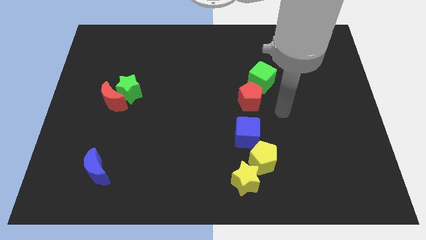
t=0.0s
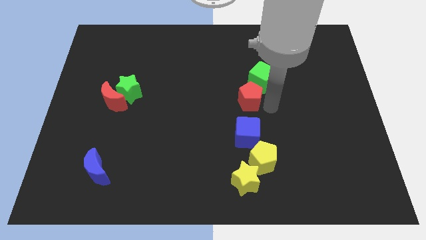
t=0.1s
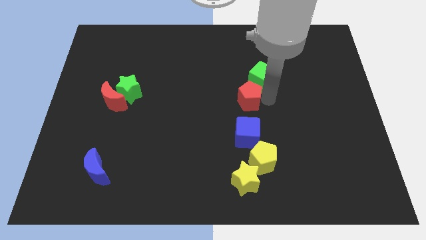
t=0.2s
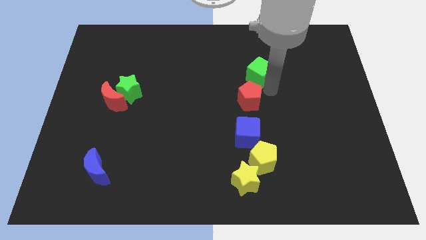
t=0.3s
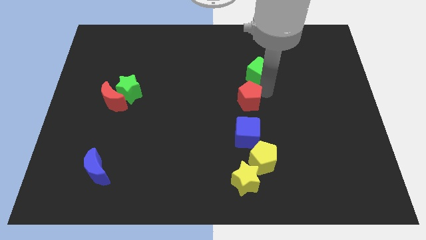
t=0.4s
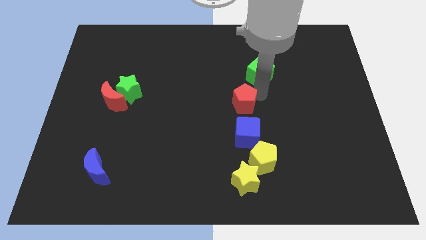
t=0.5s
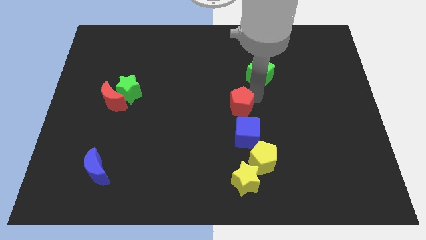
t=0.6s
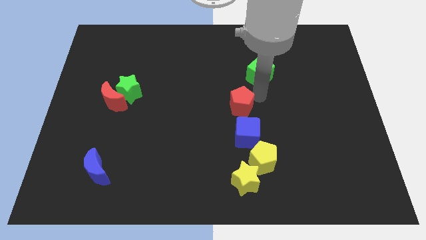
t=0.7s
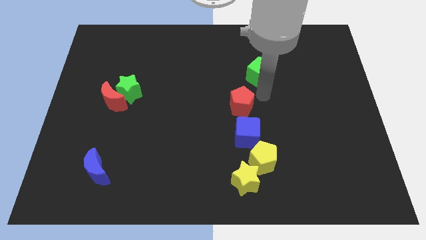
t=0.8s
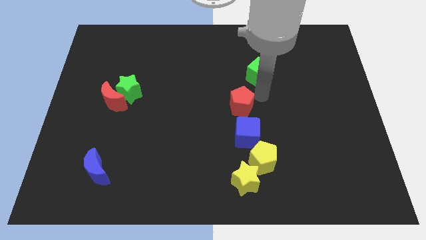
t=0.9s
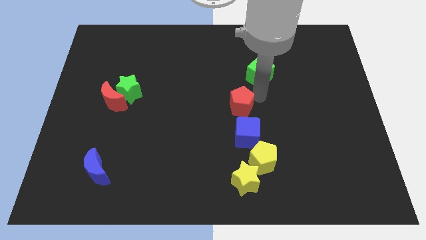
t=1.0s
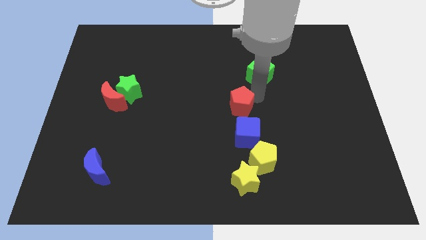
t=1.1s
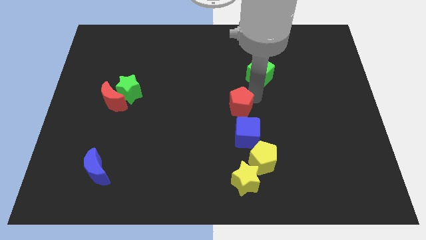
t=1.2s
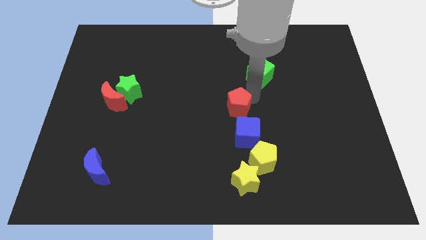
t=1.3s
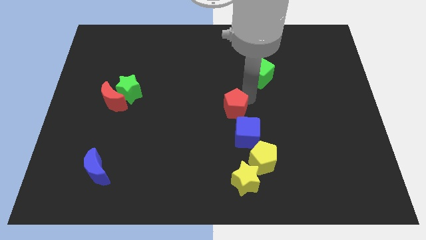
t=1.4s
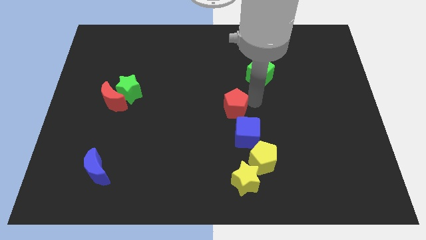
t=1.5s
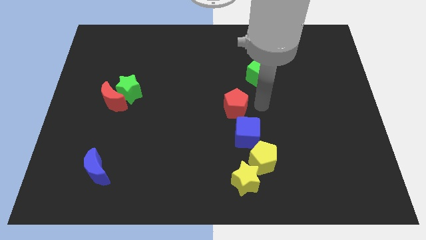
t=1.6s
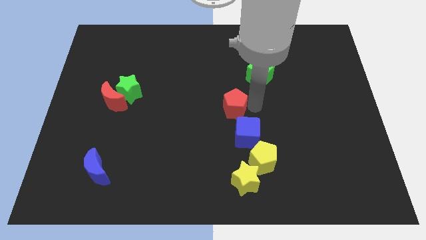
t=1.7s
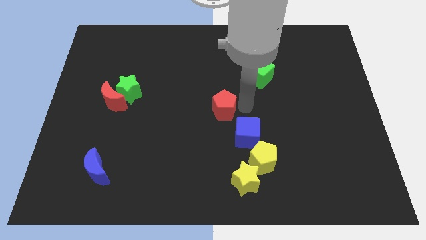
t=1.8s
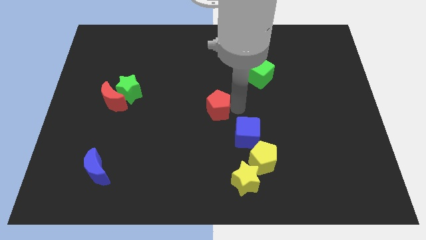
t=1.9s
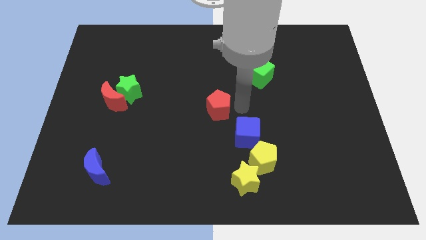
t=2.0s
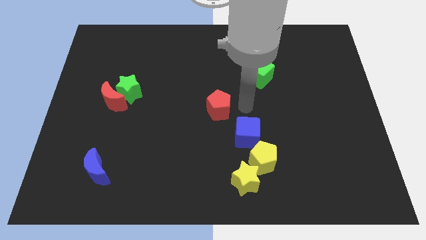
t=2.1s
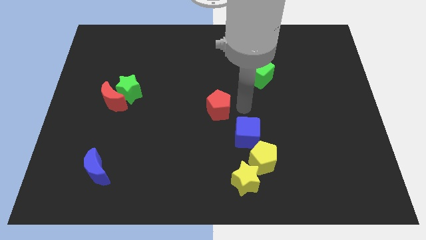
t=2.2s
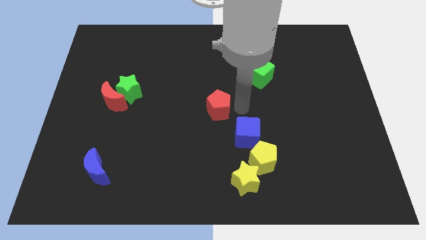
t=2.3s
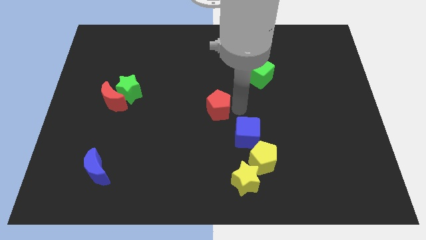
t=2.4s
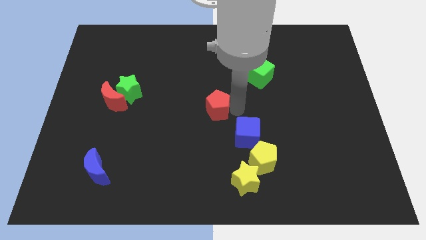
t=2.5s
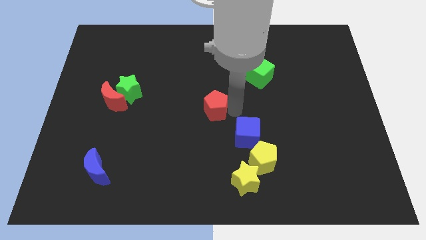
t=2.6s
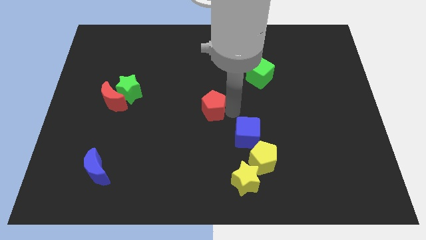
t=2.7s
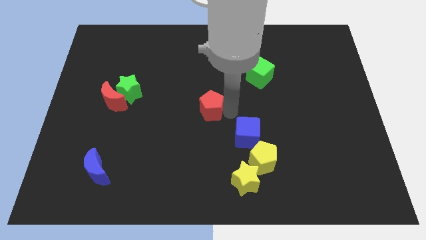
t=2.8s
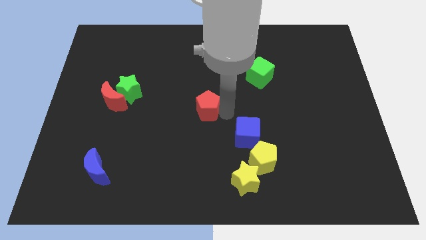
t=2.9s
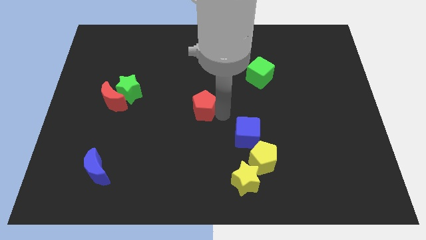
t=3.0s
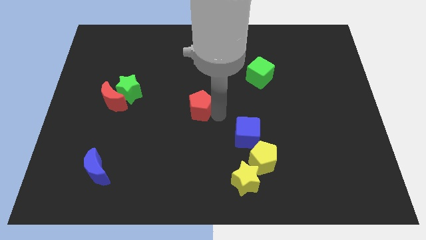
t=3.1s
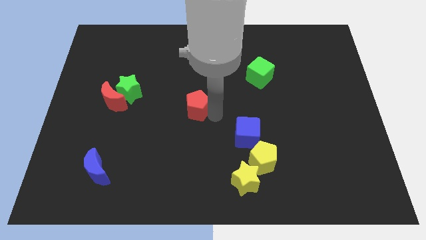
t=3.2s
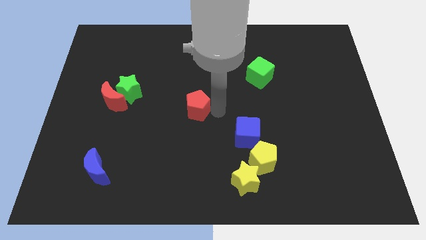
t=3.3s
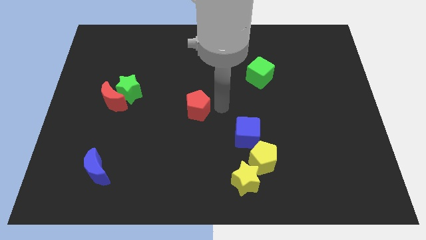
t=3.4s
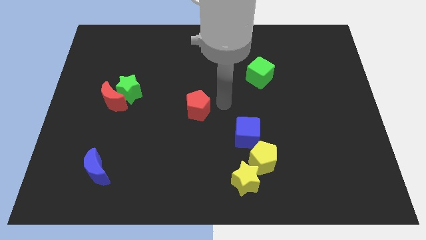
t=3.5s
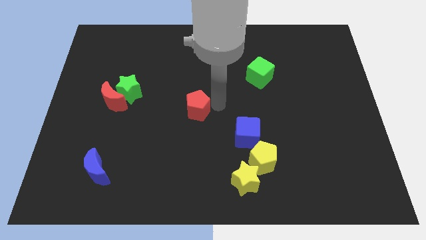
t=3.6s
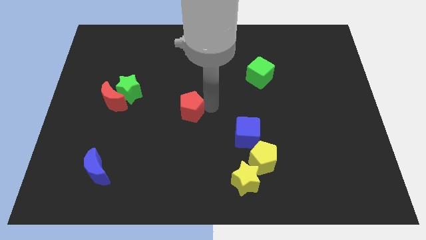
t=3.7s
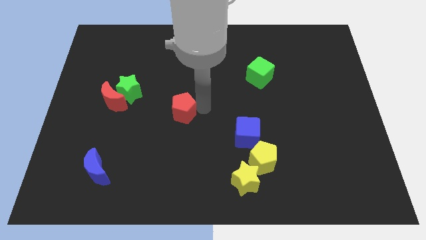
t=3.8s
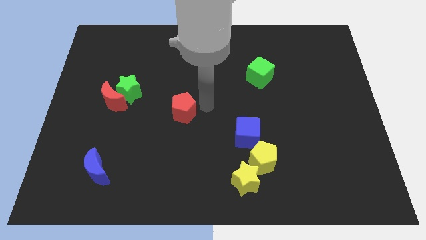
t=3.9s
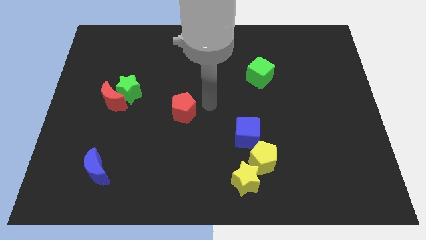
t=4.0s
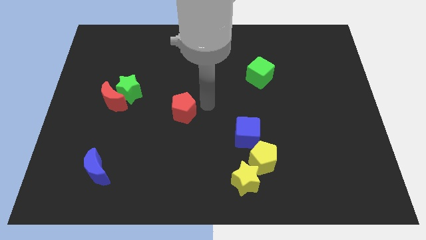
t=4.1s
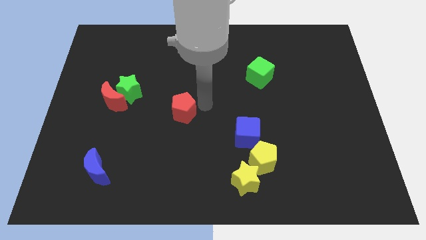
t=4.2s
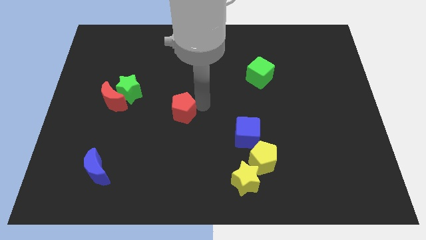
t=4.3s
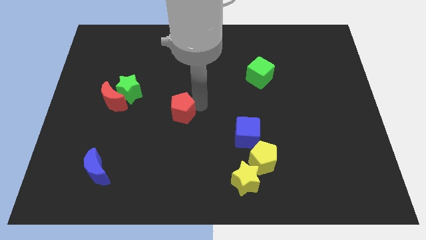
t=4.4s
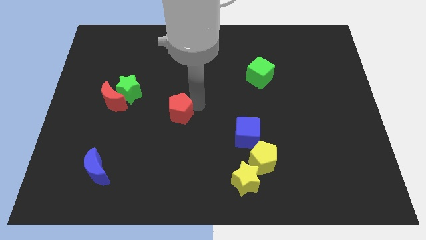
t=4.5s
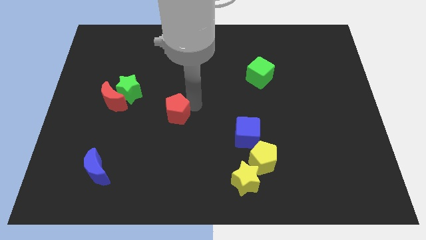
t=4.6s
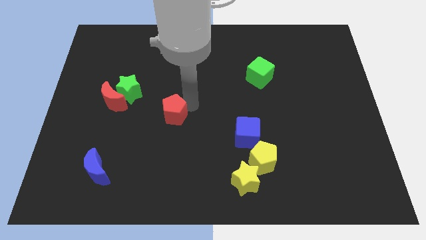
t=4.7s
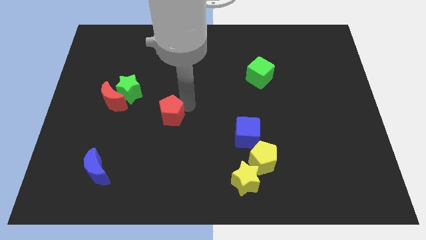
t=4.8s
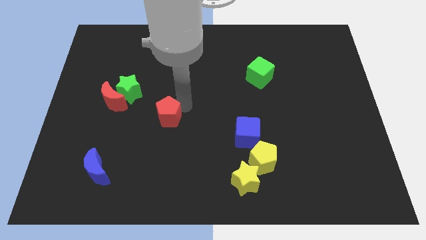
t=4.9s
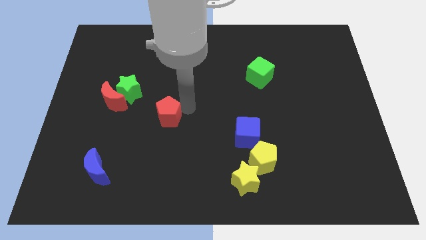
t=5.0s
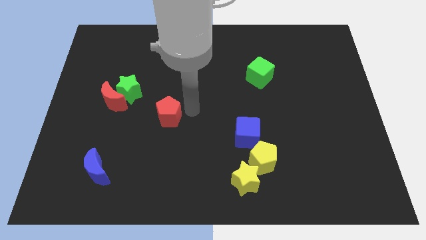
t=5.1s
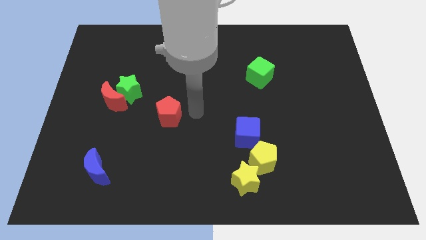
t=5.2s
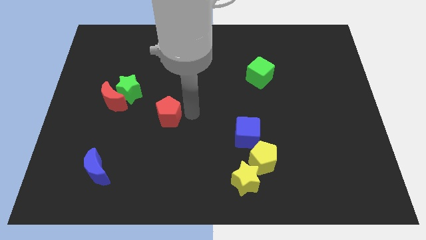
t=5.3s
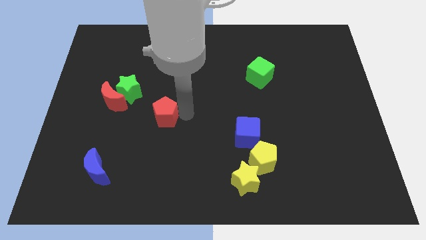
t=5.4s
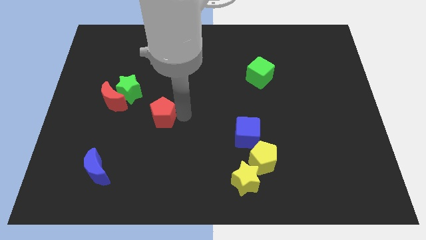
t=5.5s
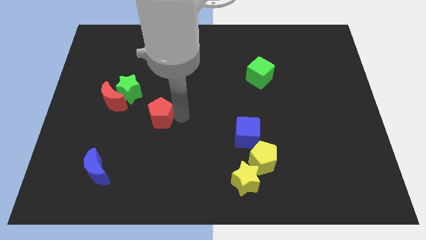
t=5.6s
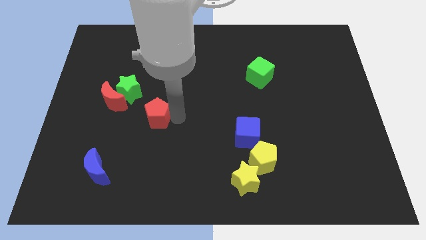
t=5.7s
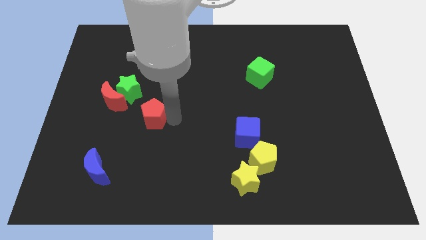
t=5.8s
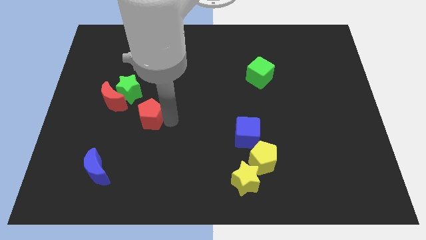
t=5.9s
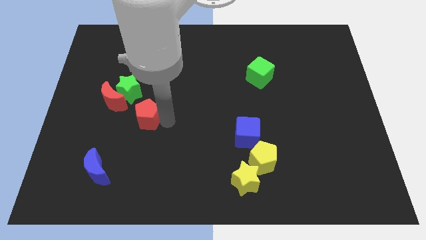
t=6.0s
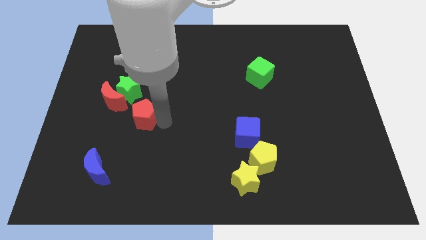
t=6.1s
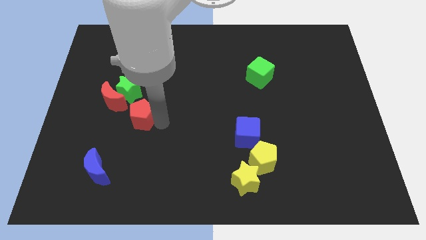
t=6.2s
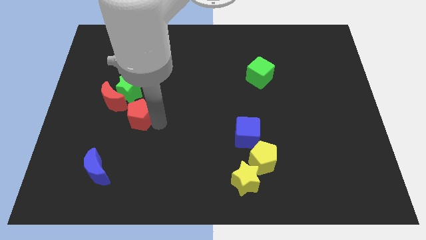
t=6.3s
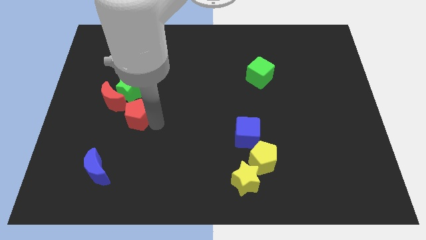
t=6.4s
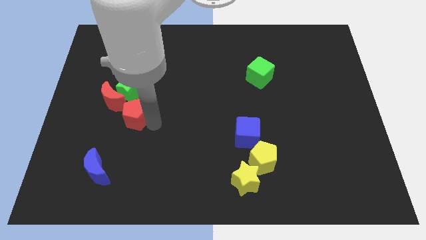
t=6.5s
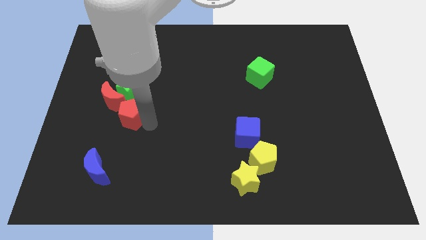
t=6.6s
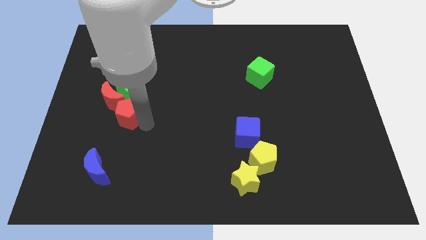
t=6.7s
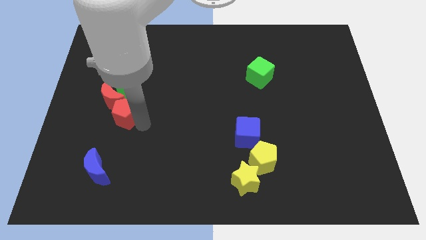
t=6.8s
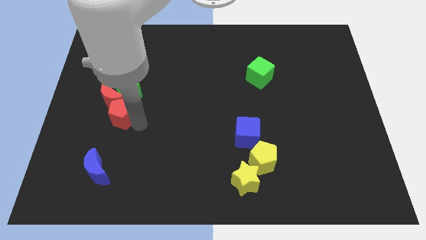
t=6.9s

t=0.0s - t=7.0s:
push the red pentagon to the bottom left side of the green star
